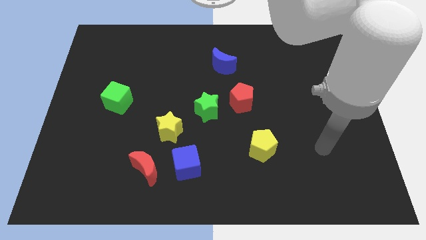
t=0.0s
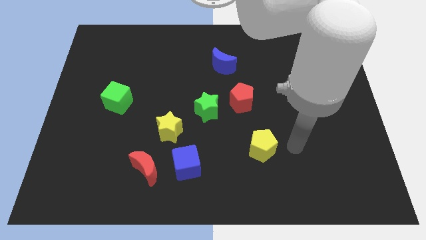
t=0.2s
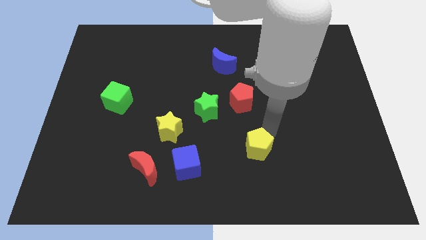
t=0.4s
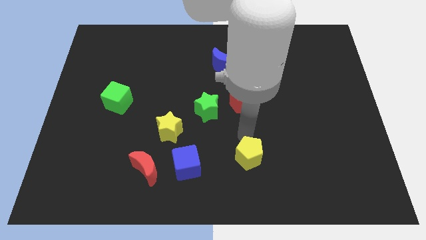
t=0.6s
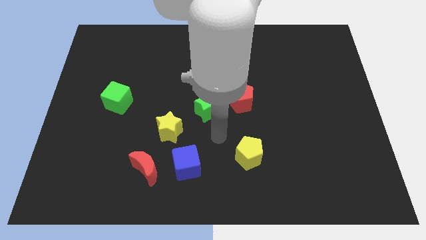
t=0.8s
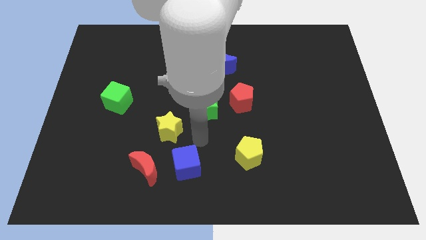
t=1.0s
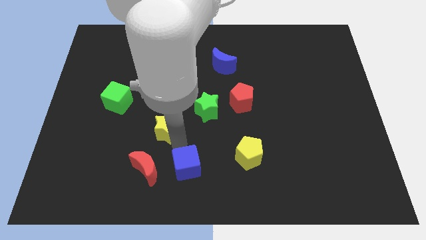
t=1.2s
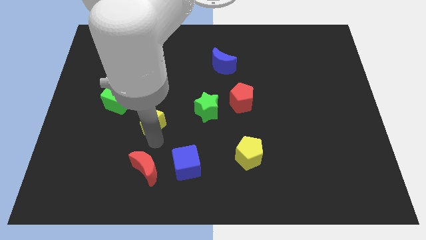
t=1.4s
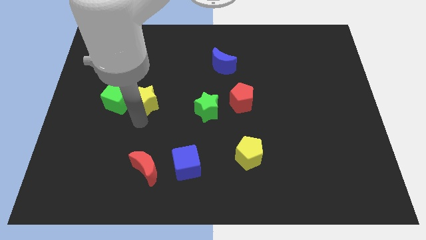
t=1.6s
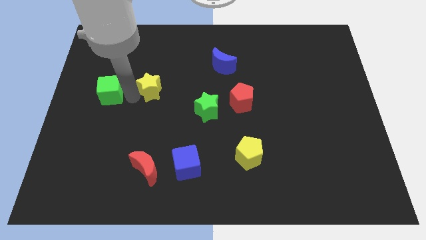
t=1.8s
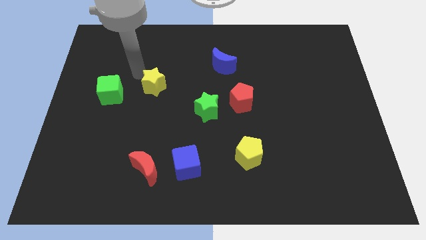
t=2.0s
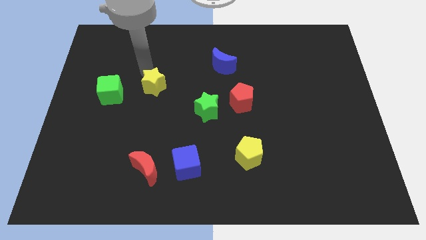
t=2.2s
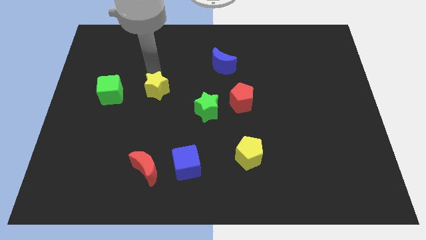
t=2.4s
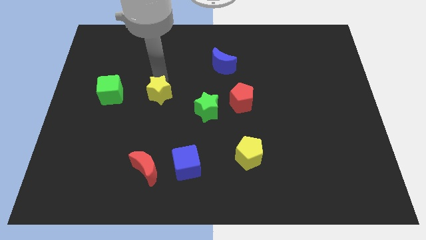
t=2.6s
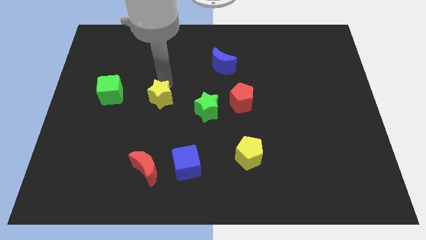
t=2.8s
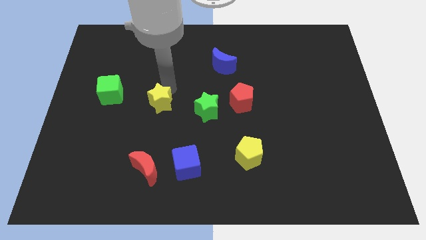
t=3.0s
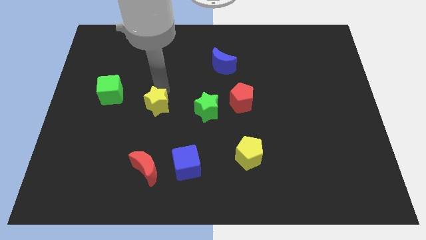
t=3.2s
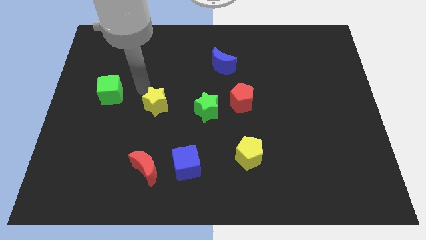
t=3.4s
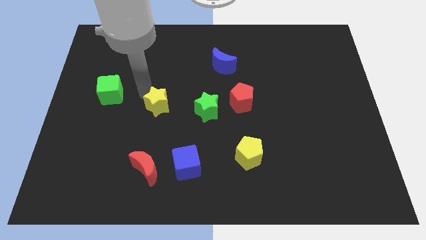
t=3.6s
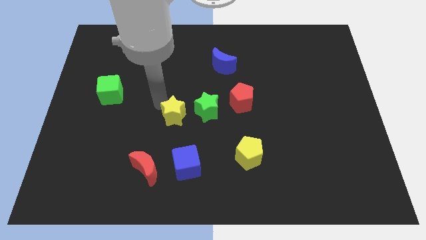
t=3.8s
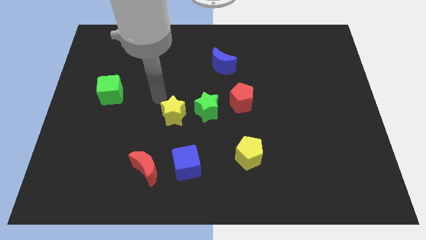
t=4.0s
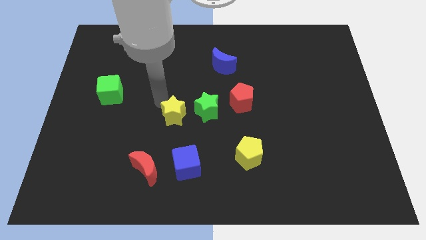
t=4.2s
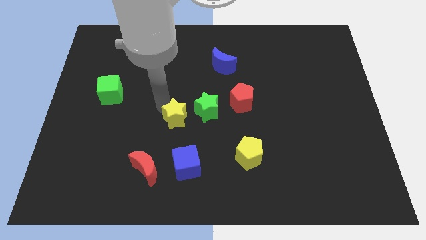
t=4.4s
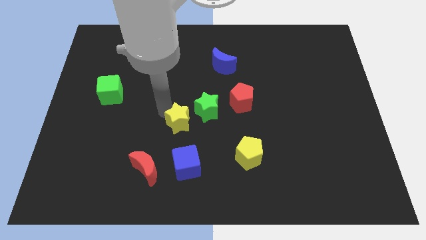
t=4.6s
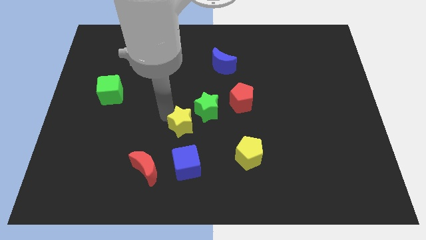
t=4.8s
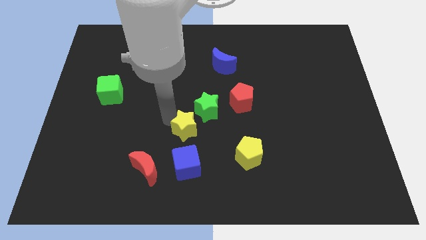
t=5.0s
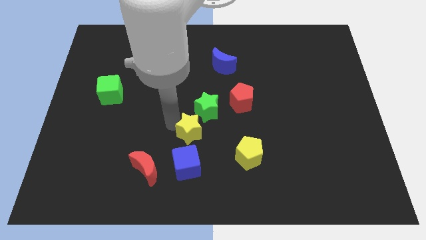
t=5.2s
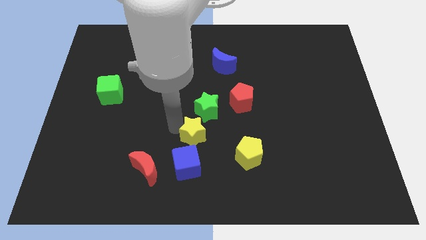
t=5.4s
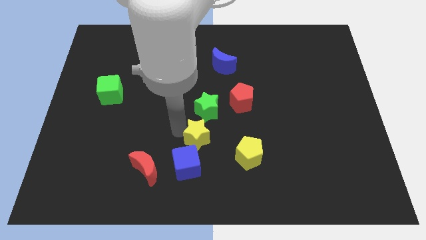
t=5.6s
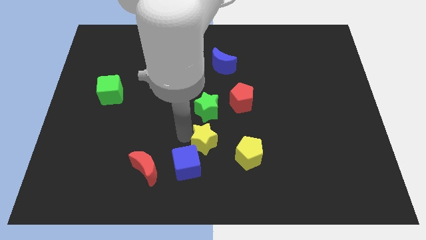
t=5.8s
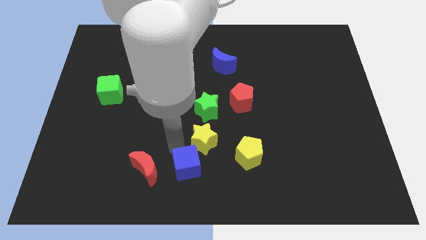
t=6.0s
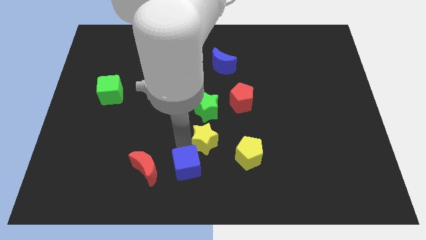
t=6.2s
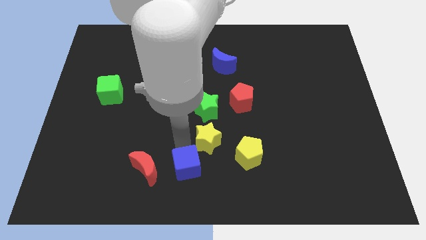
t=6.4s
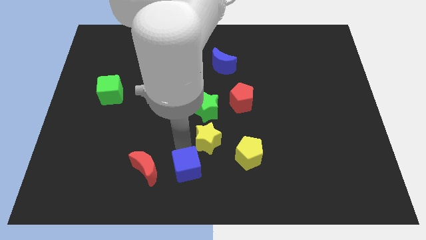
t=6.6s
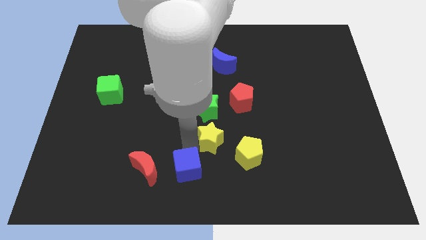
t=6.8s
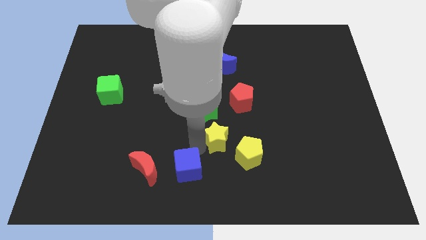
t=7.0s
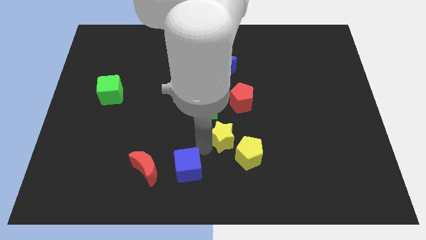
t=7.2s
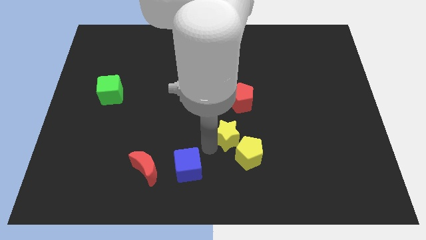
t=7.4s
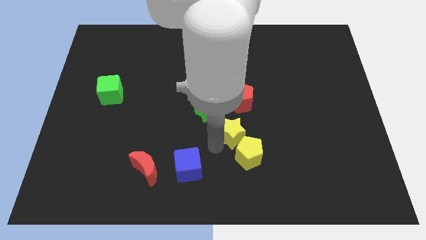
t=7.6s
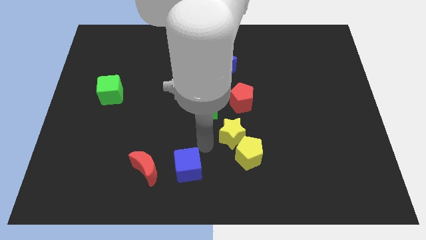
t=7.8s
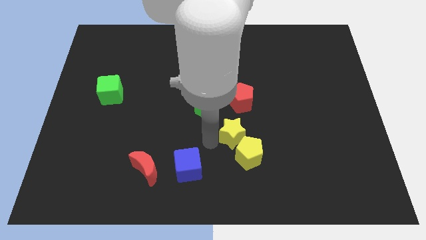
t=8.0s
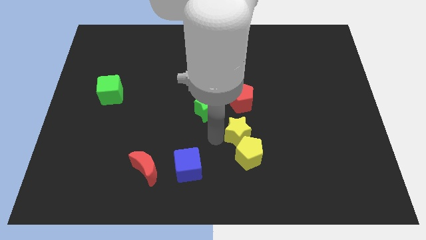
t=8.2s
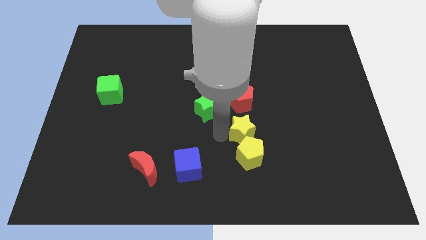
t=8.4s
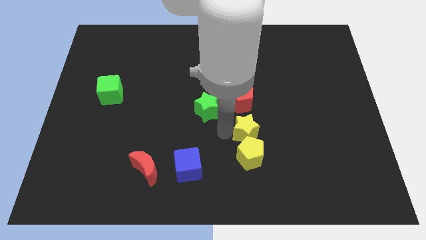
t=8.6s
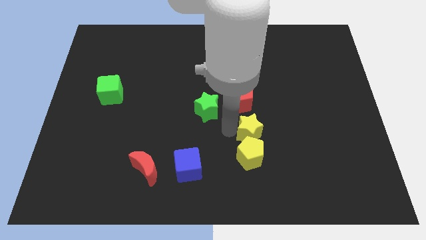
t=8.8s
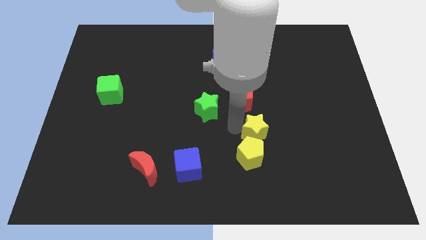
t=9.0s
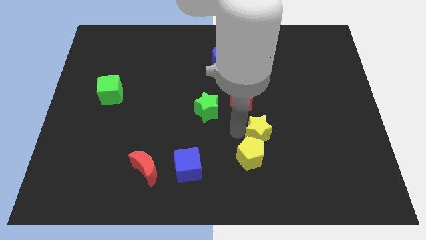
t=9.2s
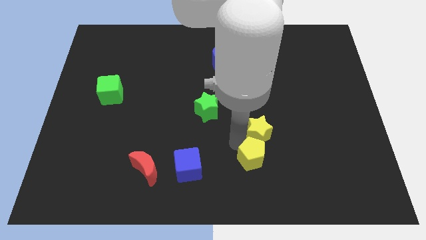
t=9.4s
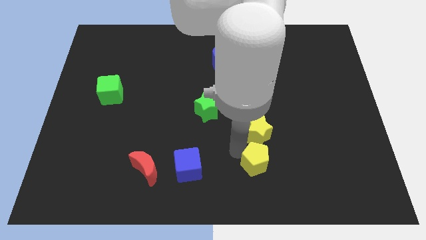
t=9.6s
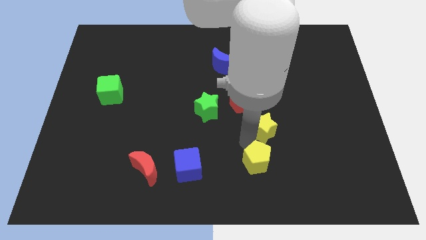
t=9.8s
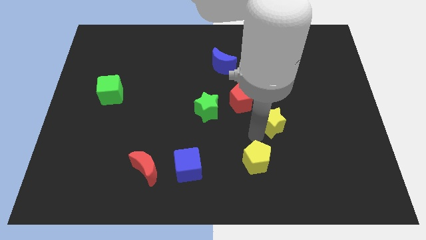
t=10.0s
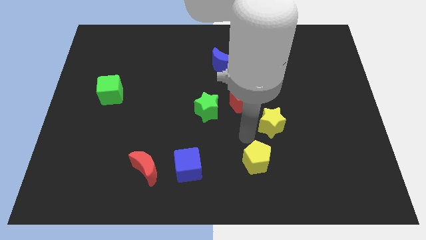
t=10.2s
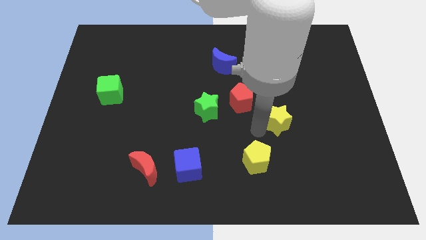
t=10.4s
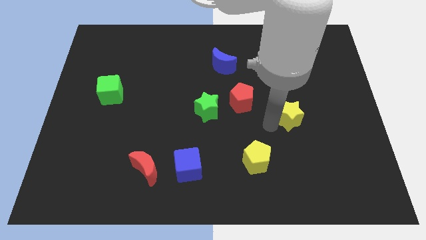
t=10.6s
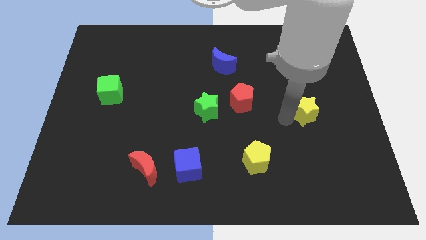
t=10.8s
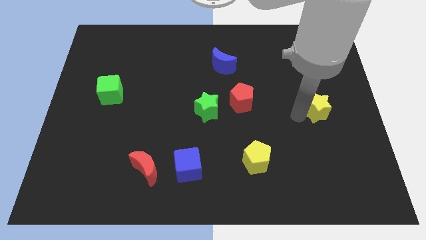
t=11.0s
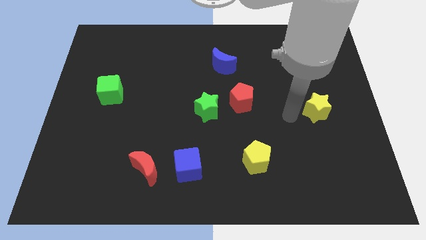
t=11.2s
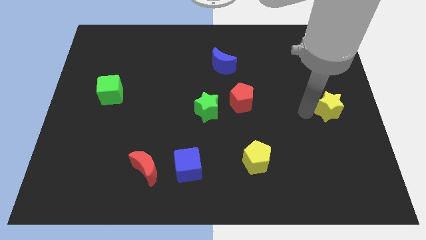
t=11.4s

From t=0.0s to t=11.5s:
put the yellow star to the right side of the board

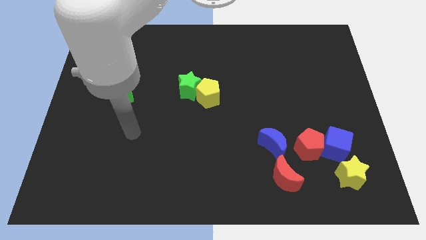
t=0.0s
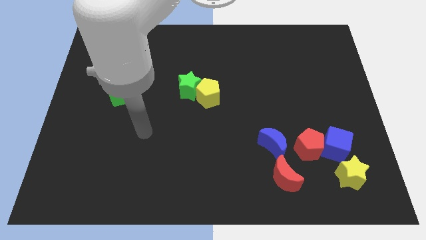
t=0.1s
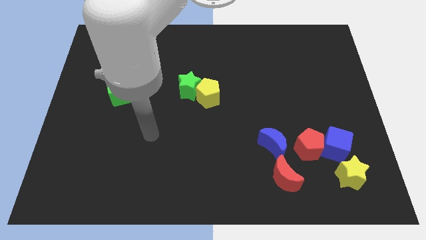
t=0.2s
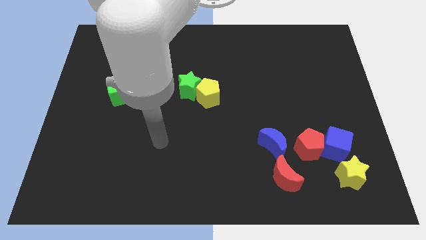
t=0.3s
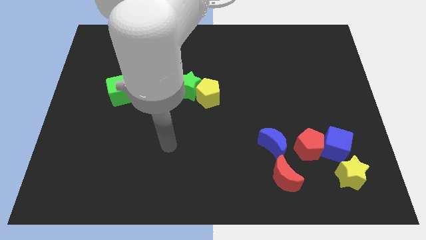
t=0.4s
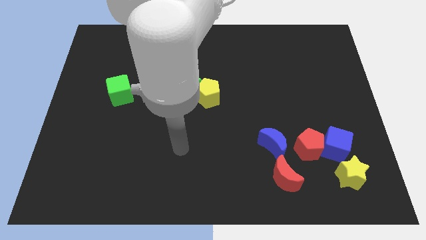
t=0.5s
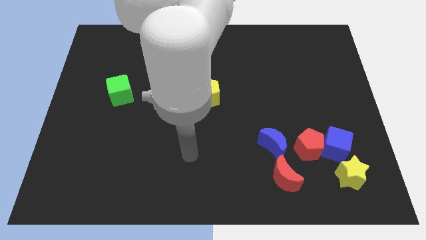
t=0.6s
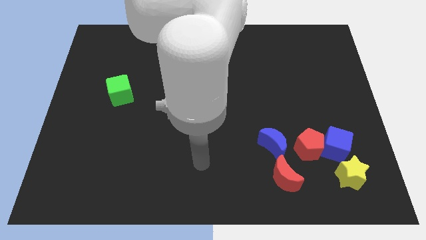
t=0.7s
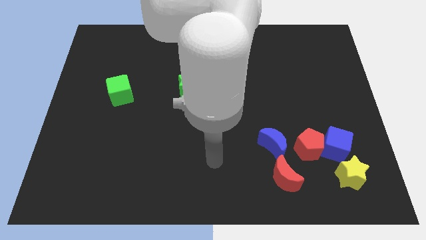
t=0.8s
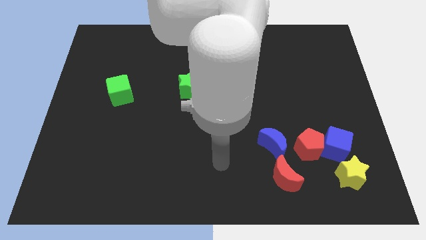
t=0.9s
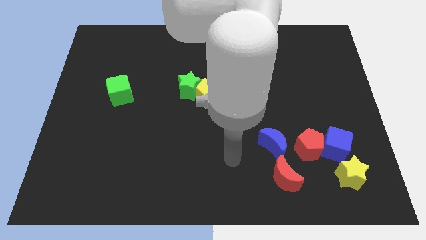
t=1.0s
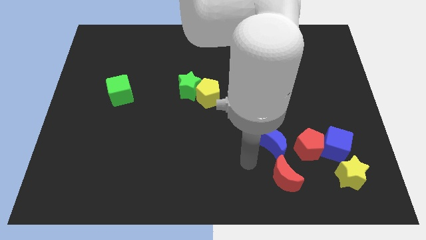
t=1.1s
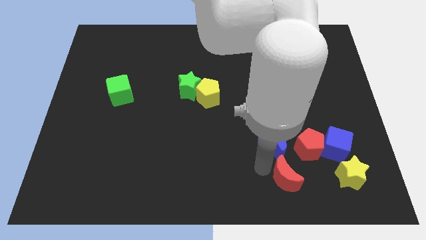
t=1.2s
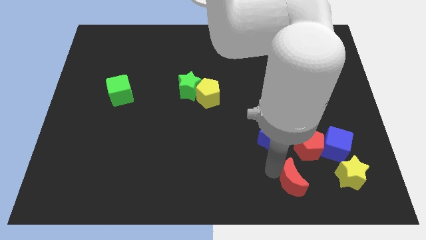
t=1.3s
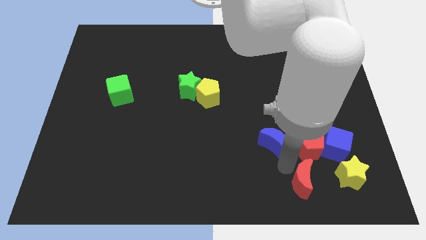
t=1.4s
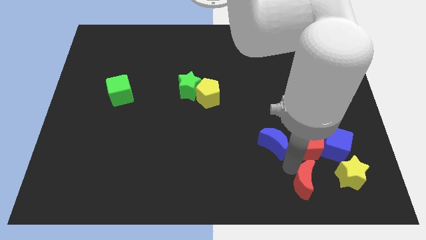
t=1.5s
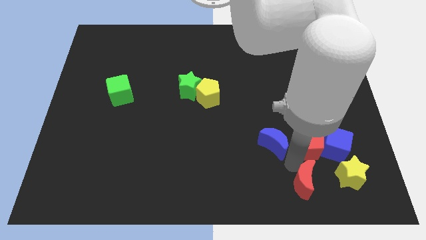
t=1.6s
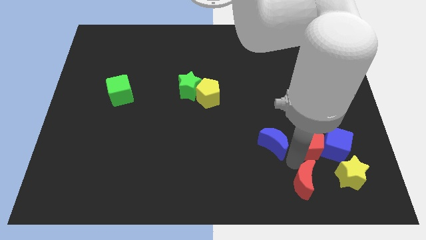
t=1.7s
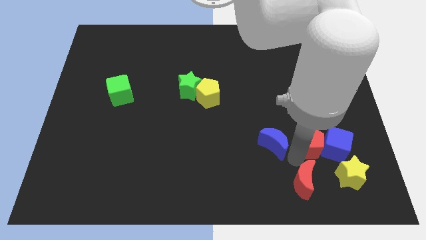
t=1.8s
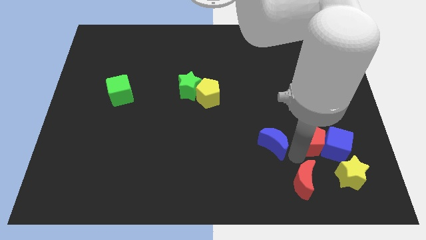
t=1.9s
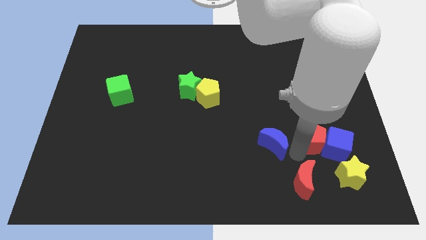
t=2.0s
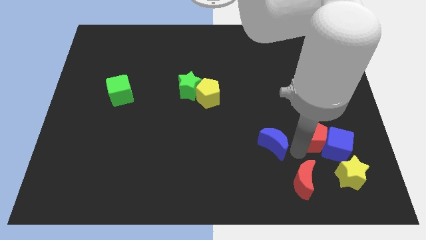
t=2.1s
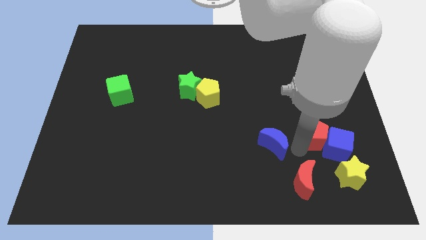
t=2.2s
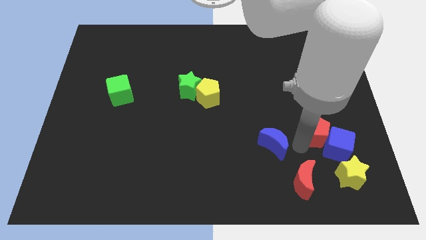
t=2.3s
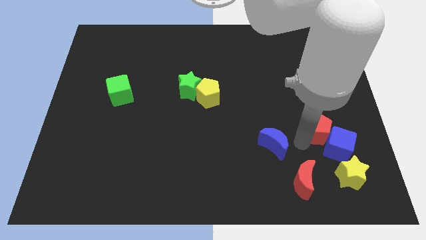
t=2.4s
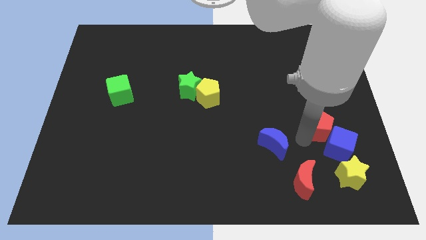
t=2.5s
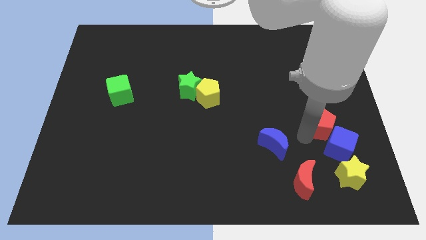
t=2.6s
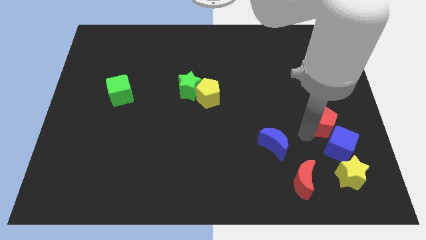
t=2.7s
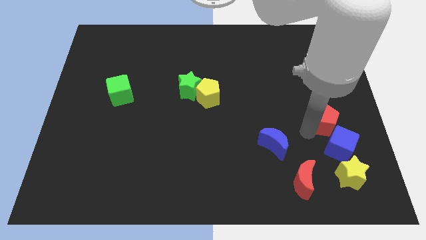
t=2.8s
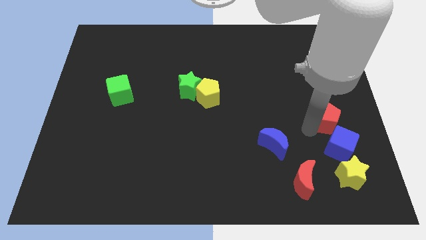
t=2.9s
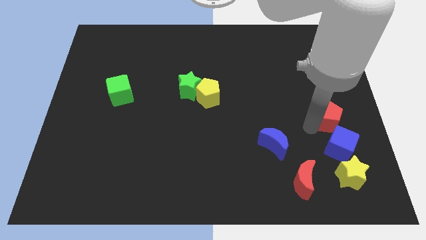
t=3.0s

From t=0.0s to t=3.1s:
push the red pentagon to the center right
